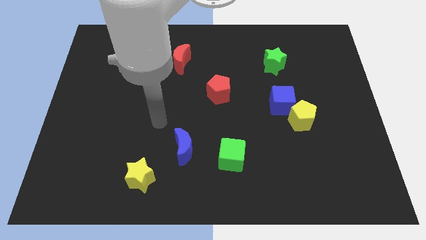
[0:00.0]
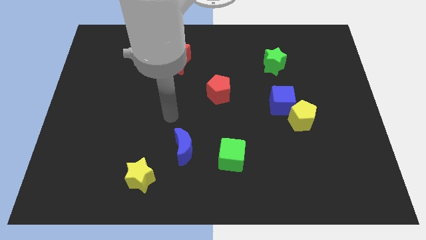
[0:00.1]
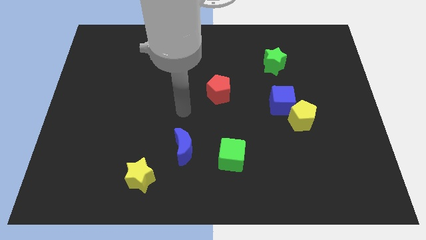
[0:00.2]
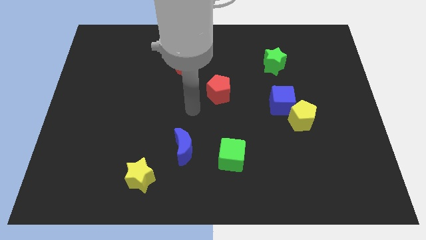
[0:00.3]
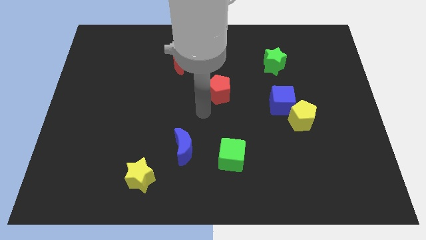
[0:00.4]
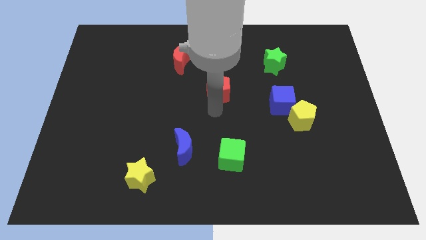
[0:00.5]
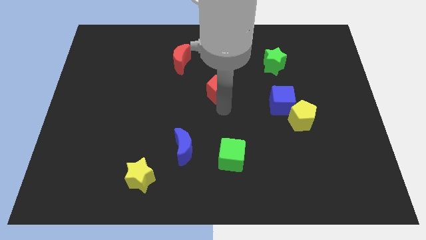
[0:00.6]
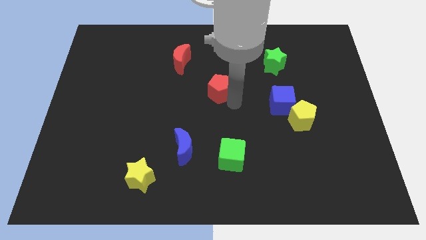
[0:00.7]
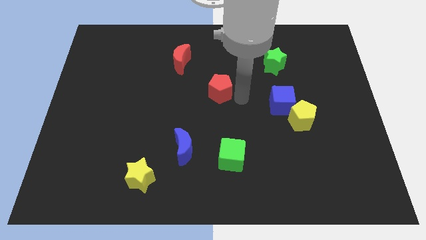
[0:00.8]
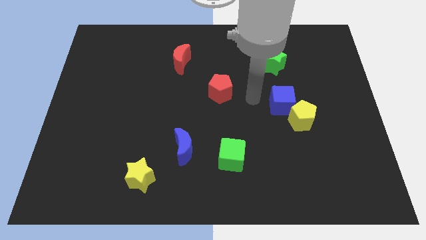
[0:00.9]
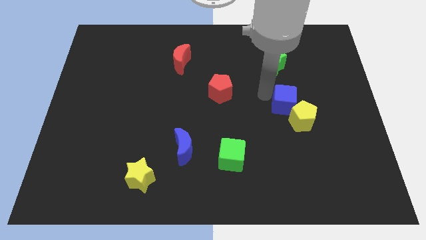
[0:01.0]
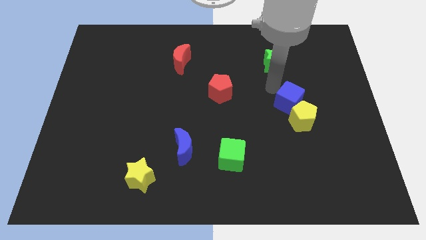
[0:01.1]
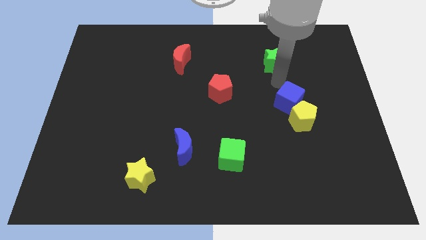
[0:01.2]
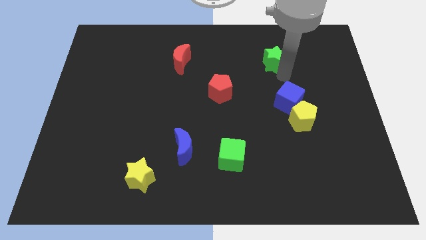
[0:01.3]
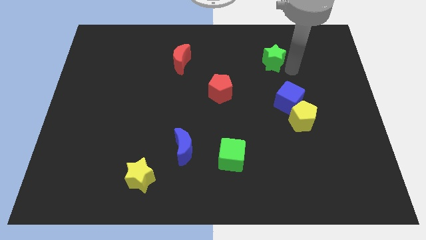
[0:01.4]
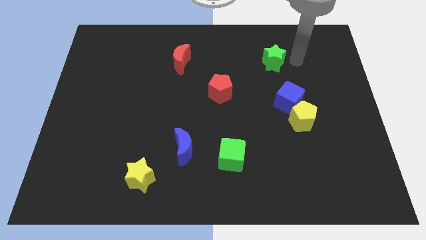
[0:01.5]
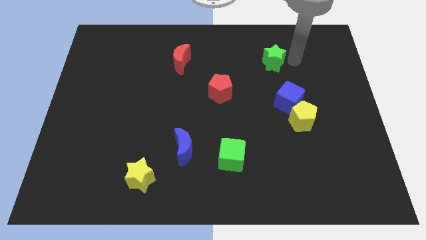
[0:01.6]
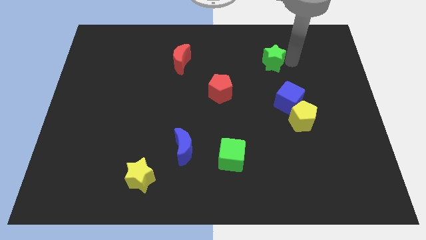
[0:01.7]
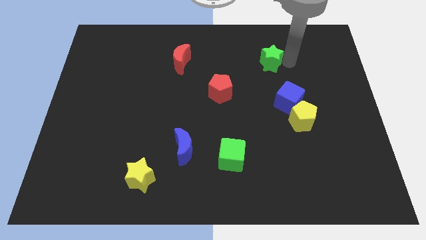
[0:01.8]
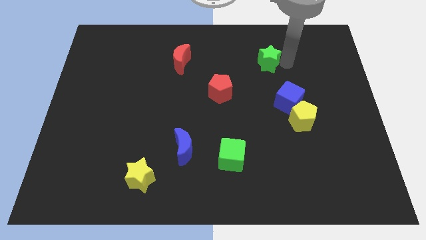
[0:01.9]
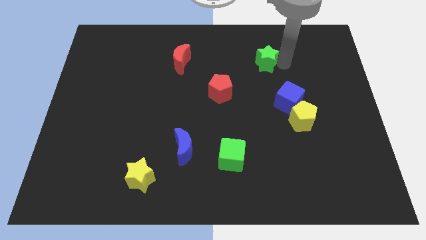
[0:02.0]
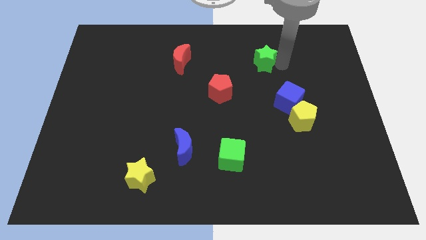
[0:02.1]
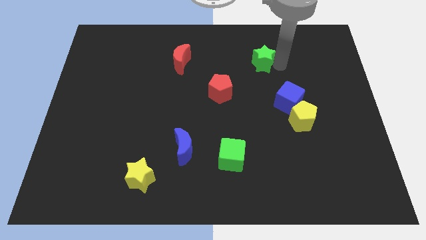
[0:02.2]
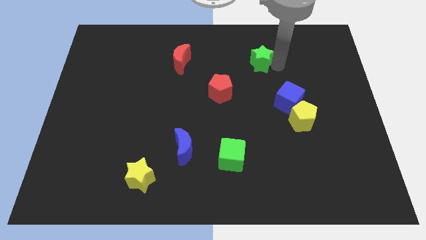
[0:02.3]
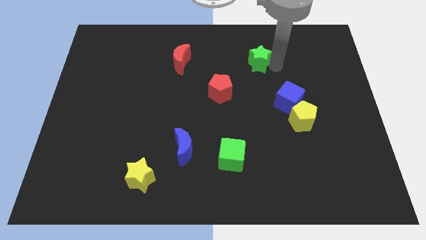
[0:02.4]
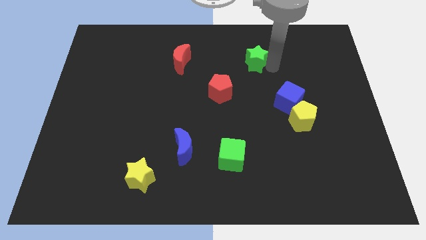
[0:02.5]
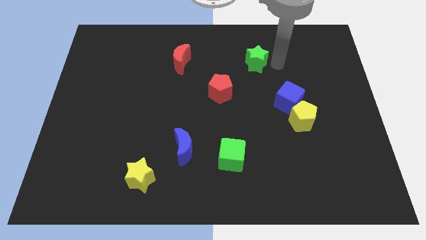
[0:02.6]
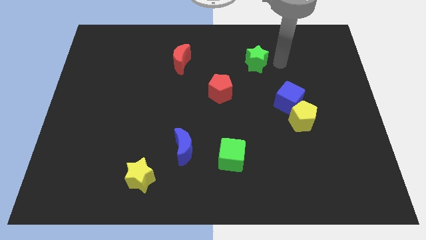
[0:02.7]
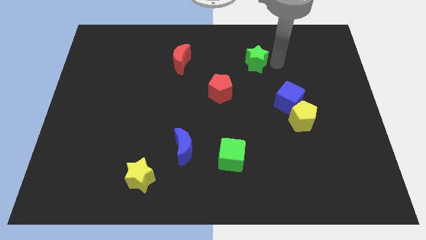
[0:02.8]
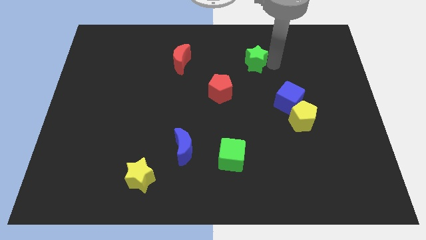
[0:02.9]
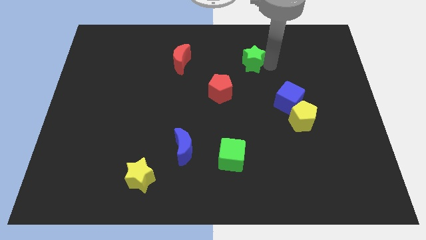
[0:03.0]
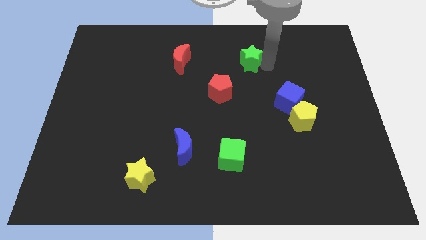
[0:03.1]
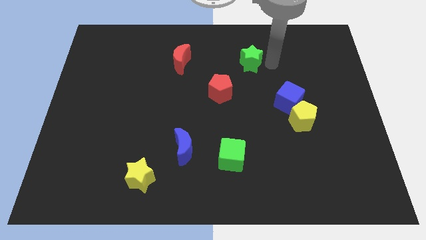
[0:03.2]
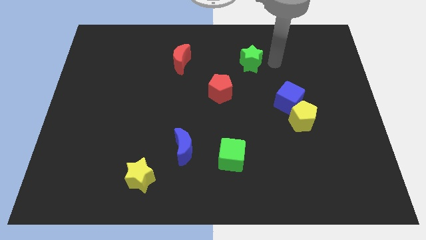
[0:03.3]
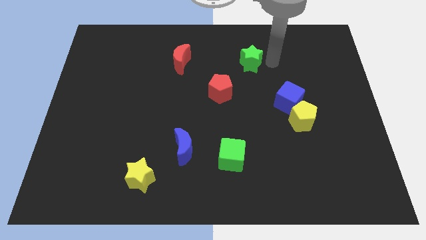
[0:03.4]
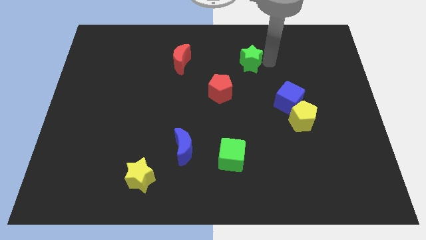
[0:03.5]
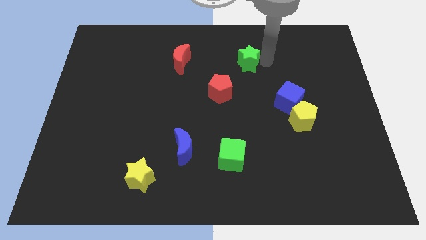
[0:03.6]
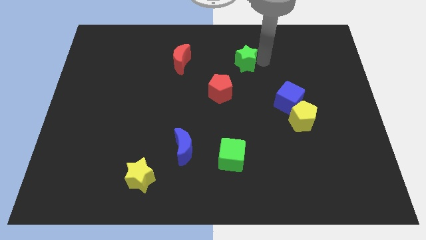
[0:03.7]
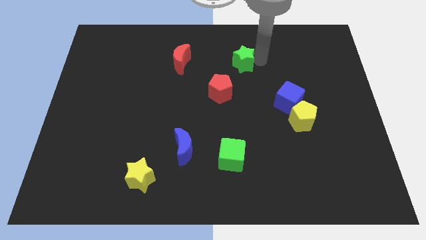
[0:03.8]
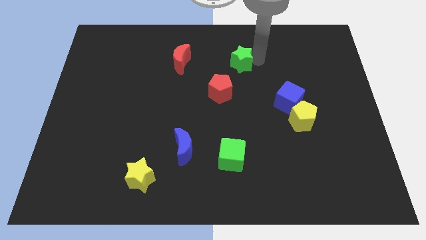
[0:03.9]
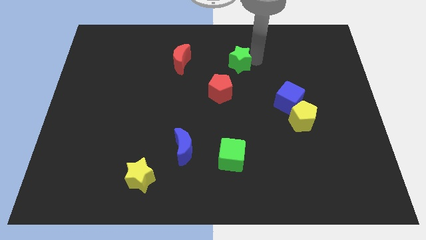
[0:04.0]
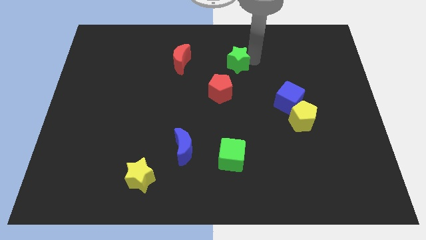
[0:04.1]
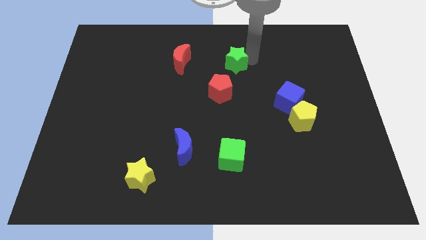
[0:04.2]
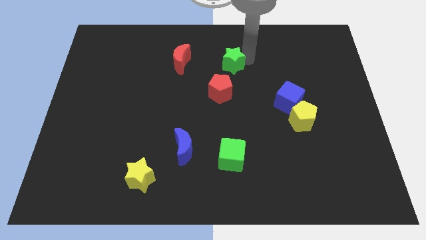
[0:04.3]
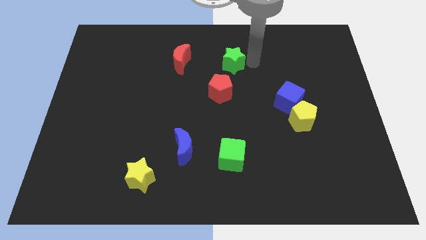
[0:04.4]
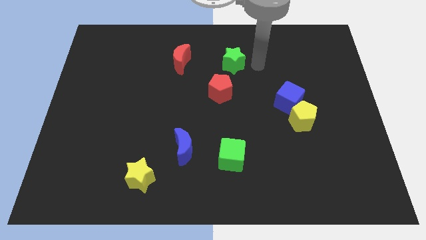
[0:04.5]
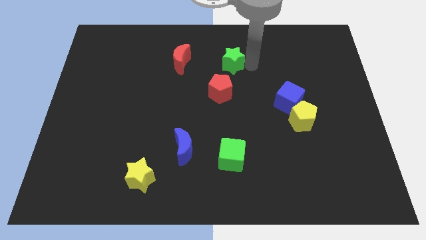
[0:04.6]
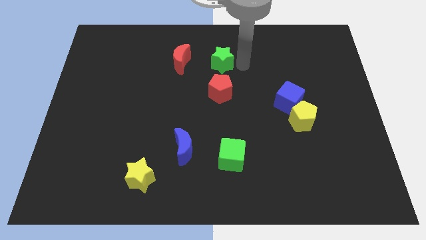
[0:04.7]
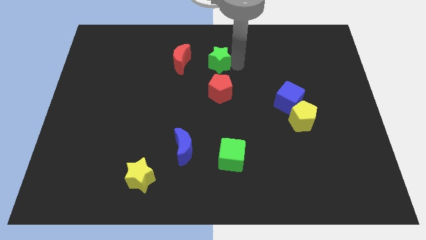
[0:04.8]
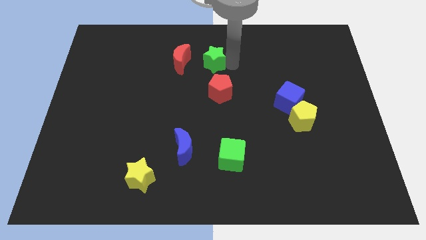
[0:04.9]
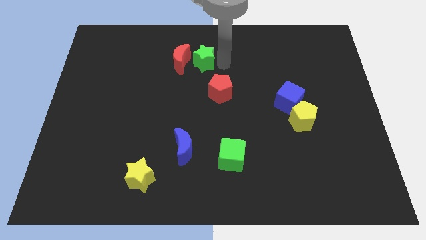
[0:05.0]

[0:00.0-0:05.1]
move the green star to the red moon

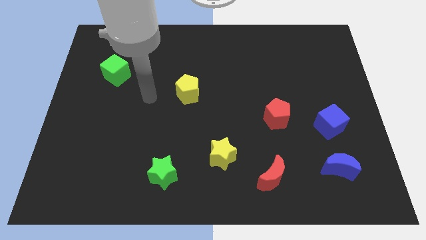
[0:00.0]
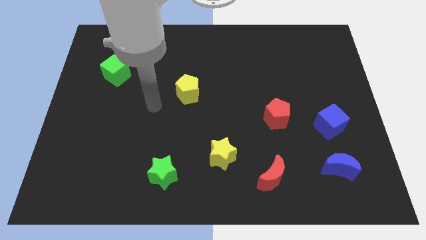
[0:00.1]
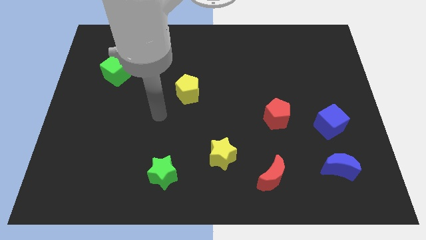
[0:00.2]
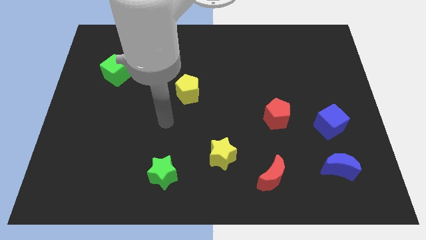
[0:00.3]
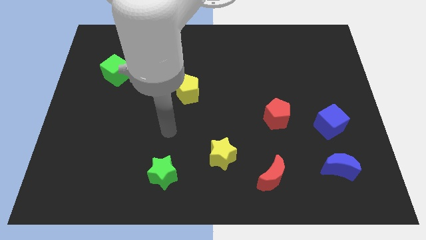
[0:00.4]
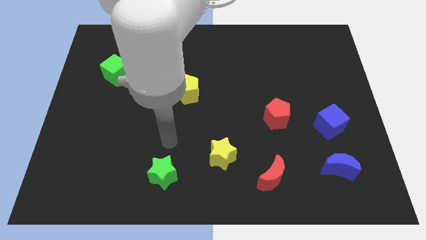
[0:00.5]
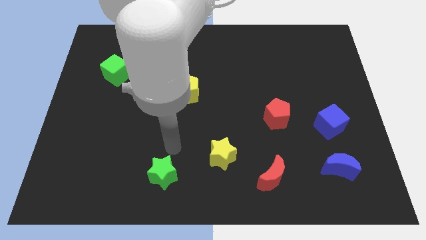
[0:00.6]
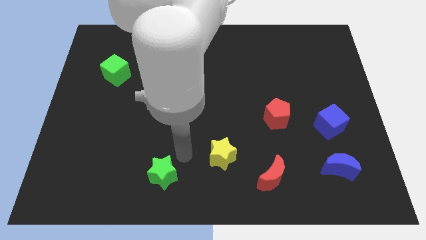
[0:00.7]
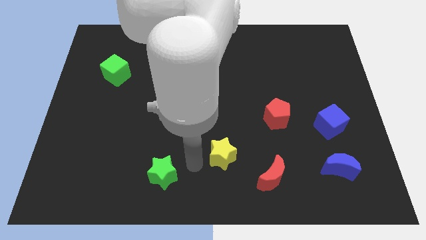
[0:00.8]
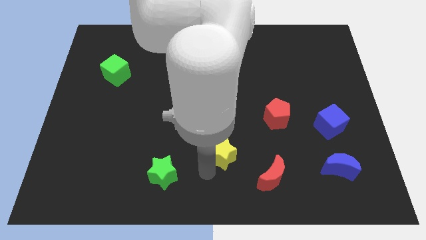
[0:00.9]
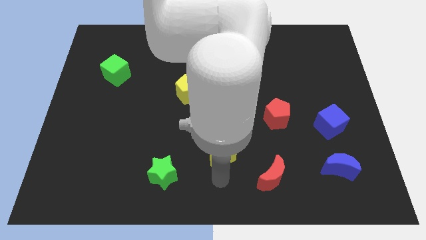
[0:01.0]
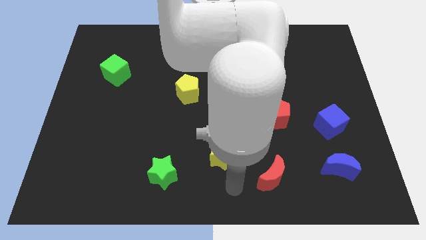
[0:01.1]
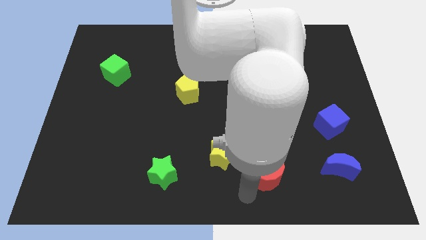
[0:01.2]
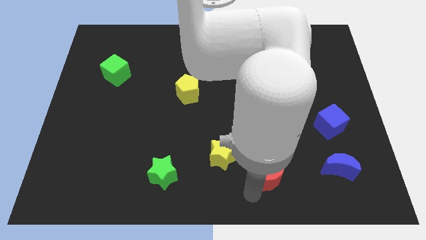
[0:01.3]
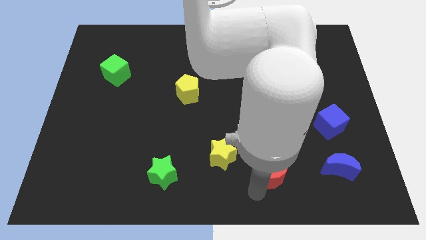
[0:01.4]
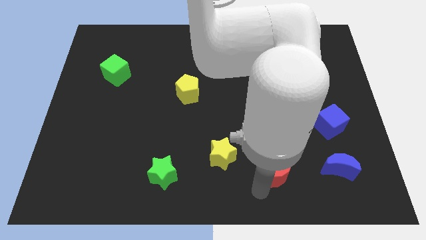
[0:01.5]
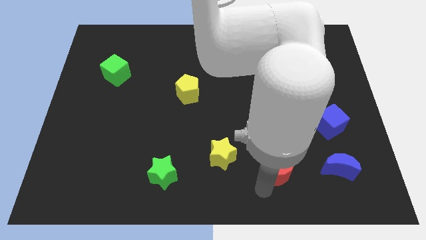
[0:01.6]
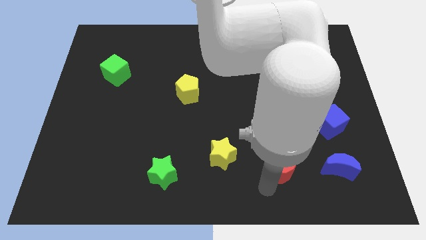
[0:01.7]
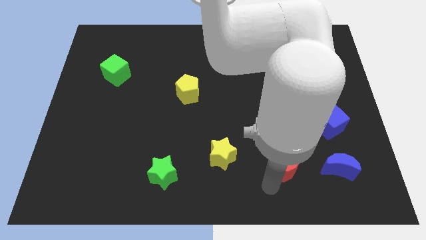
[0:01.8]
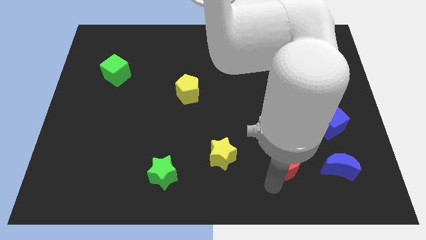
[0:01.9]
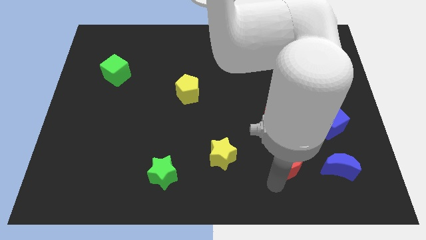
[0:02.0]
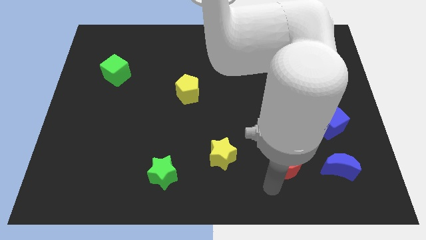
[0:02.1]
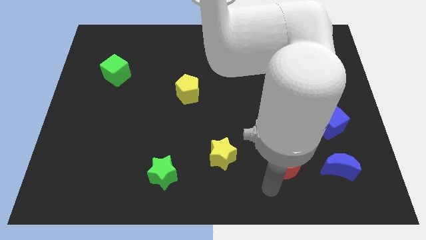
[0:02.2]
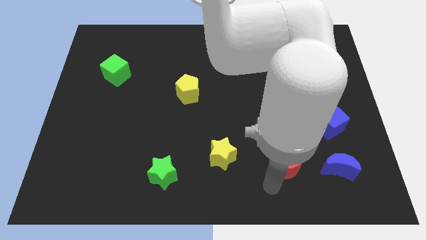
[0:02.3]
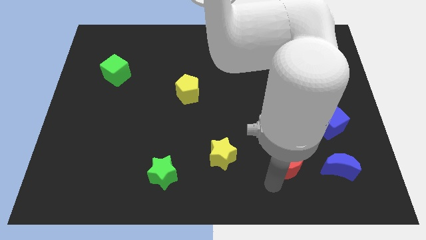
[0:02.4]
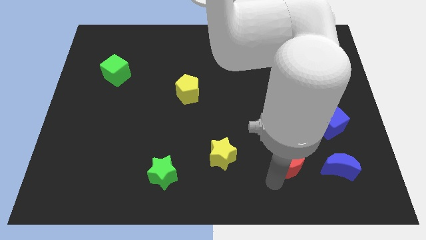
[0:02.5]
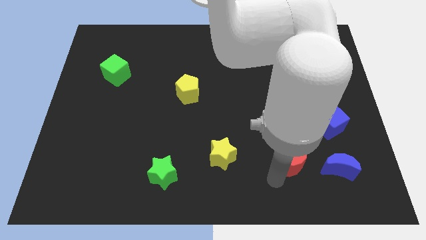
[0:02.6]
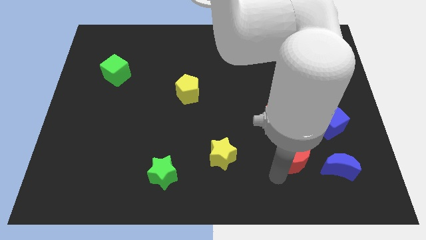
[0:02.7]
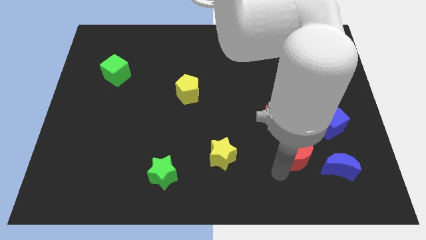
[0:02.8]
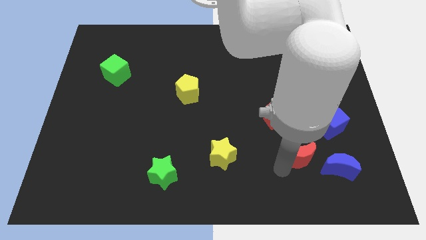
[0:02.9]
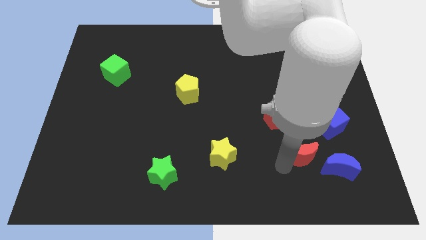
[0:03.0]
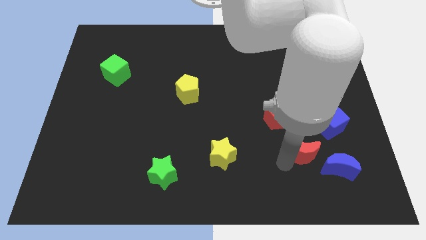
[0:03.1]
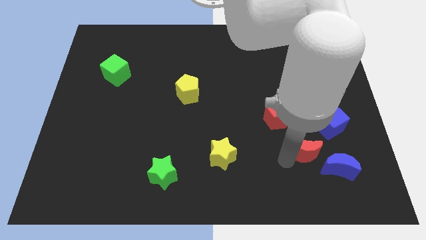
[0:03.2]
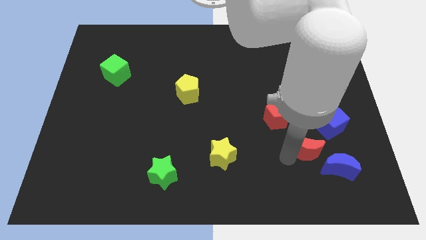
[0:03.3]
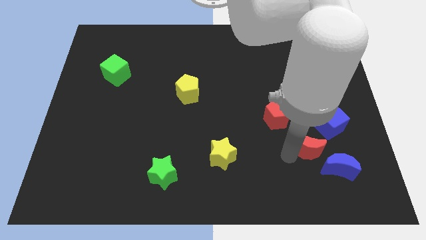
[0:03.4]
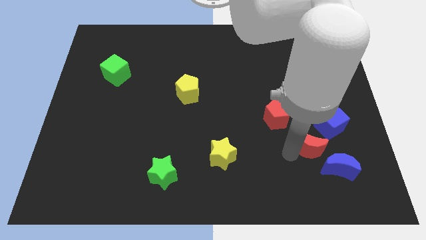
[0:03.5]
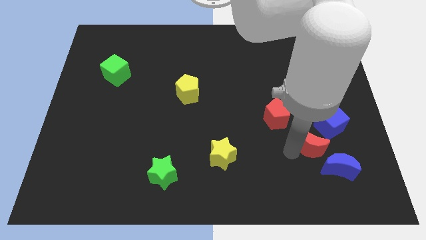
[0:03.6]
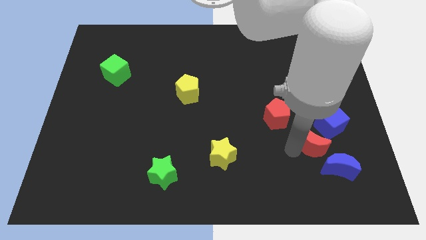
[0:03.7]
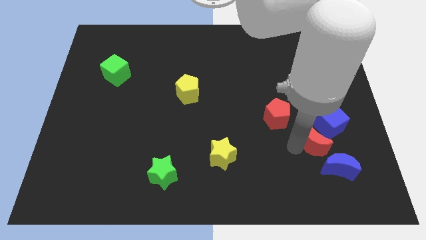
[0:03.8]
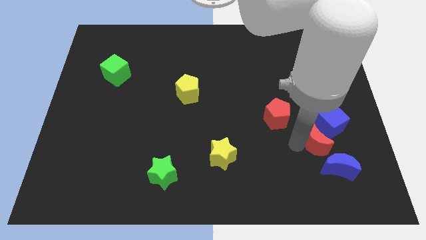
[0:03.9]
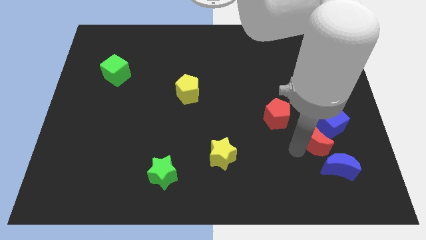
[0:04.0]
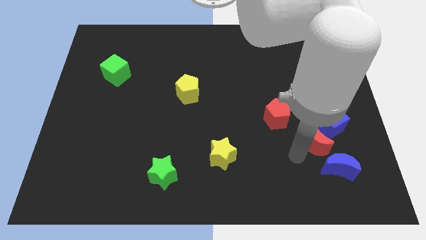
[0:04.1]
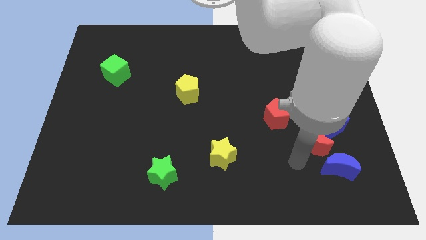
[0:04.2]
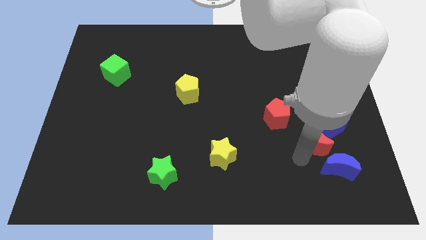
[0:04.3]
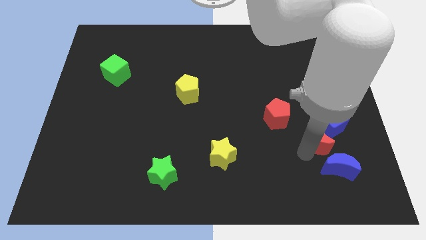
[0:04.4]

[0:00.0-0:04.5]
put the red moon close to the blue cube
